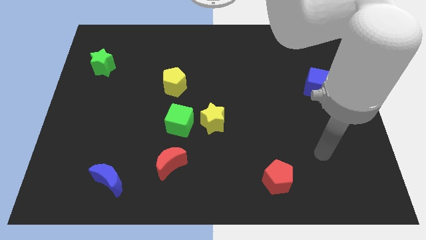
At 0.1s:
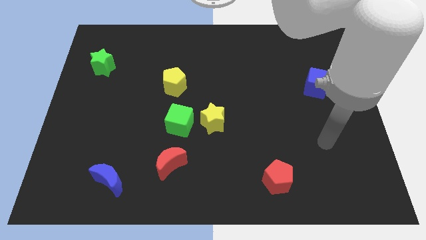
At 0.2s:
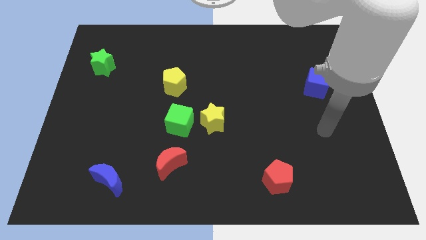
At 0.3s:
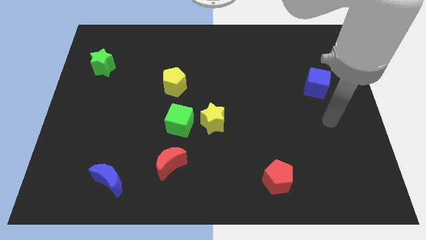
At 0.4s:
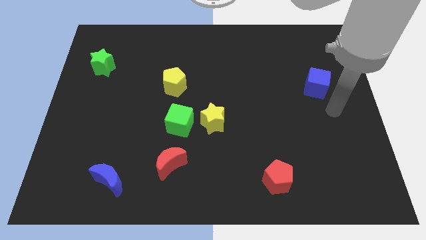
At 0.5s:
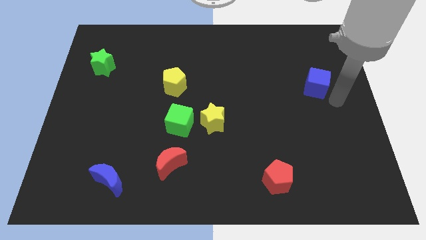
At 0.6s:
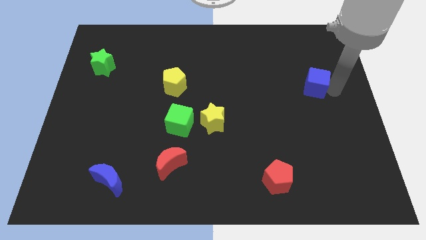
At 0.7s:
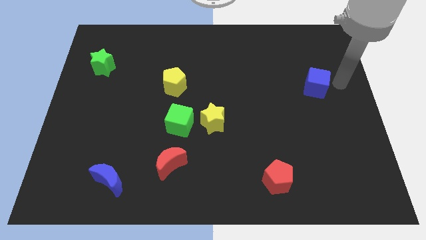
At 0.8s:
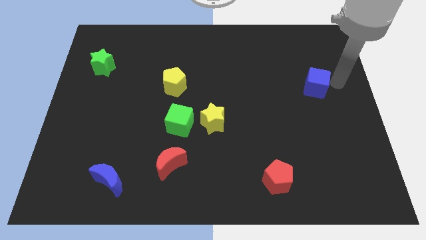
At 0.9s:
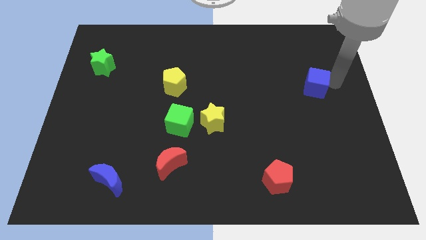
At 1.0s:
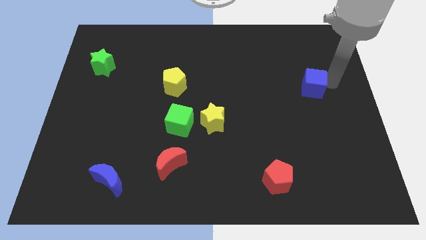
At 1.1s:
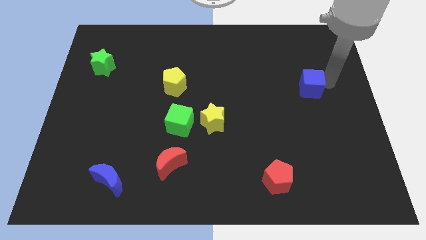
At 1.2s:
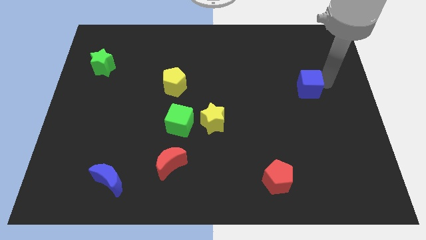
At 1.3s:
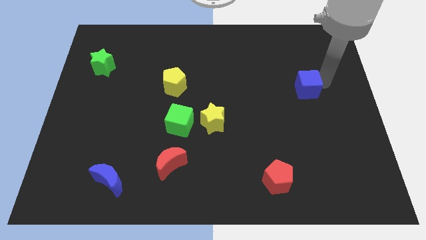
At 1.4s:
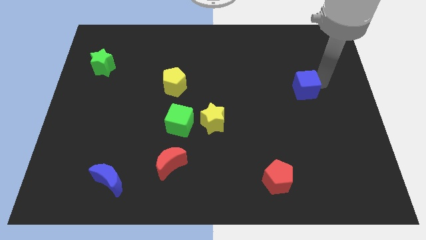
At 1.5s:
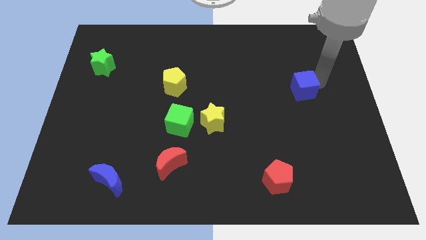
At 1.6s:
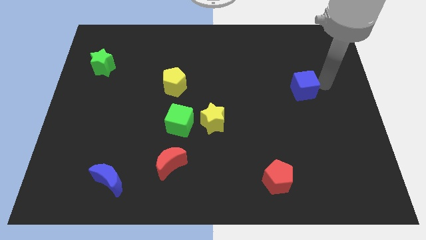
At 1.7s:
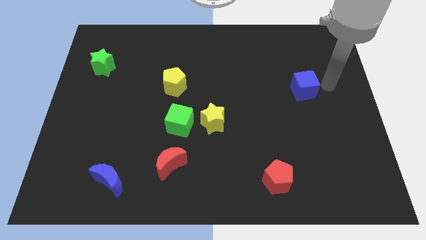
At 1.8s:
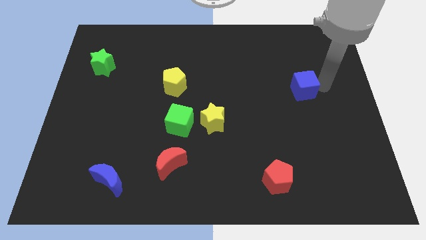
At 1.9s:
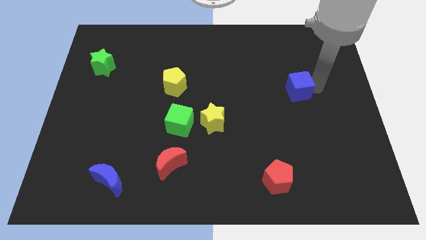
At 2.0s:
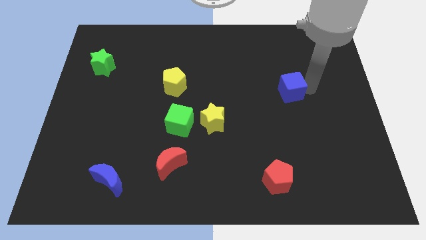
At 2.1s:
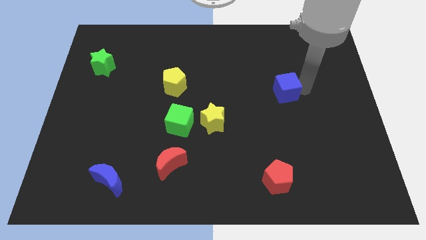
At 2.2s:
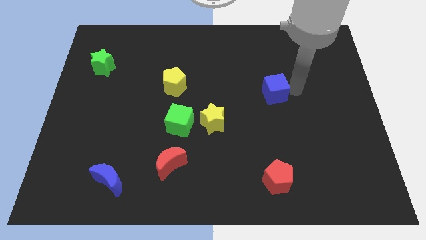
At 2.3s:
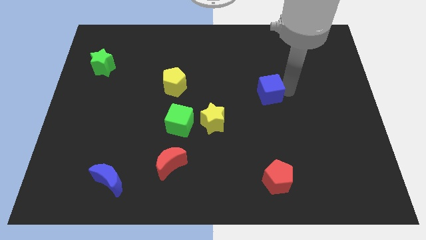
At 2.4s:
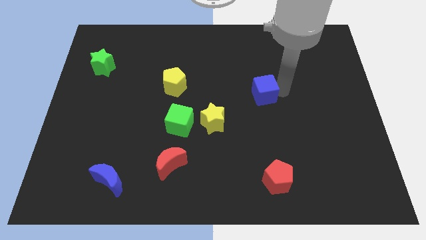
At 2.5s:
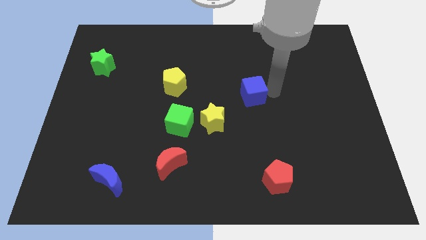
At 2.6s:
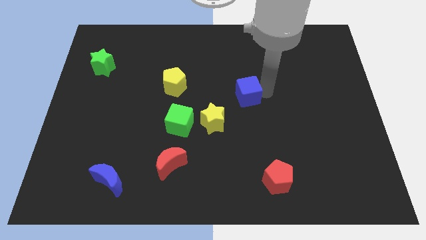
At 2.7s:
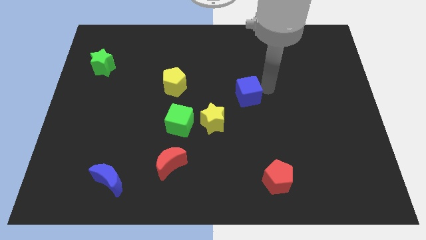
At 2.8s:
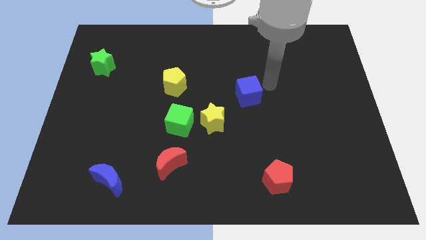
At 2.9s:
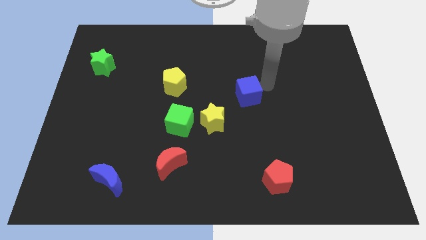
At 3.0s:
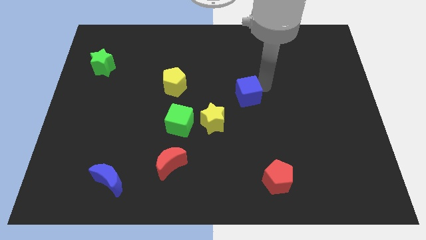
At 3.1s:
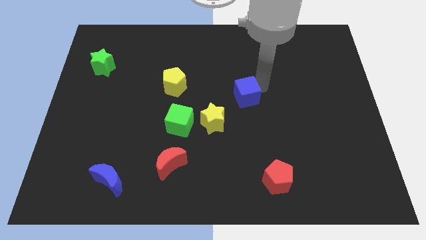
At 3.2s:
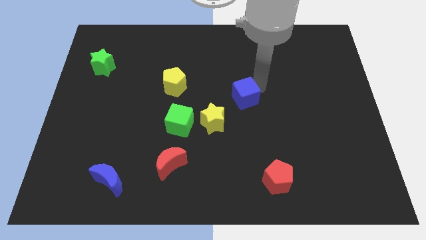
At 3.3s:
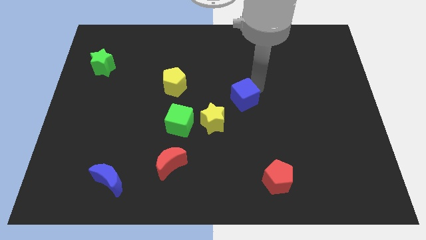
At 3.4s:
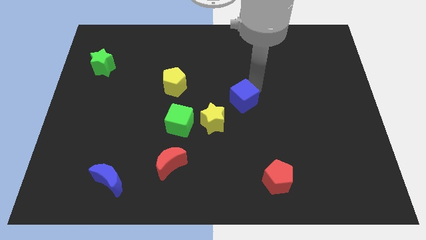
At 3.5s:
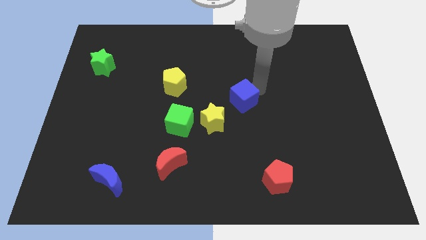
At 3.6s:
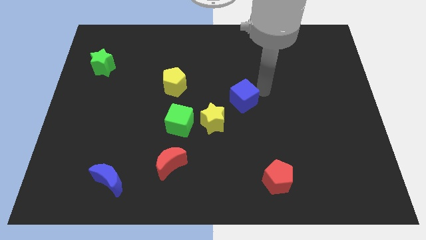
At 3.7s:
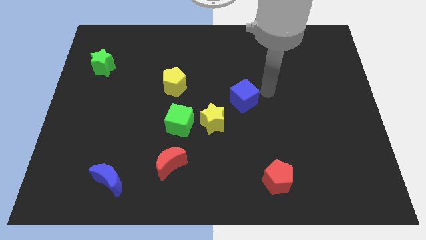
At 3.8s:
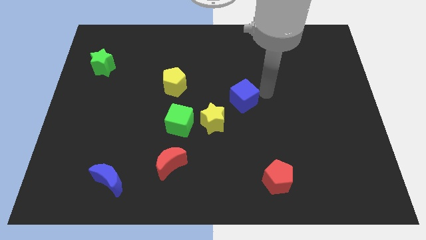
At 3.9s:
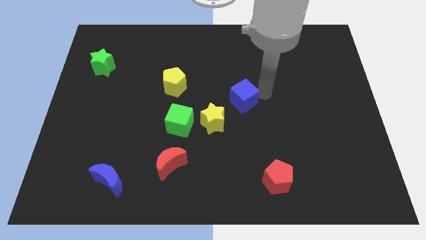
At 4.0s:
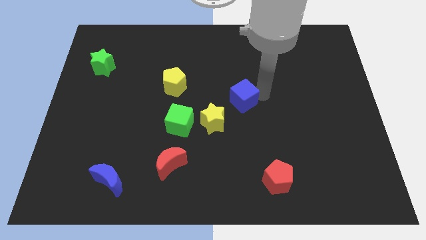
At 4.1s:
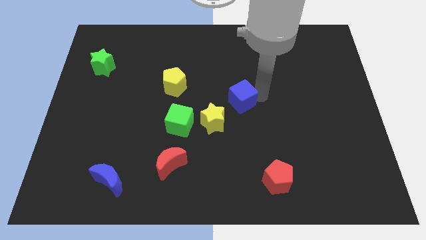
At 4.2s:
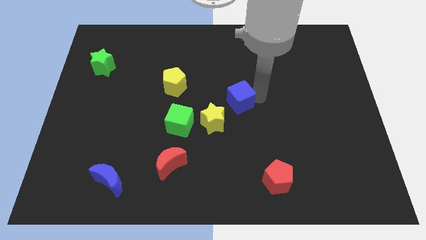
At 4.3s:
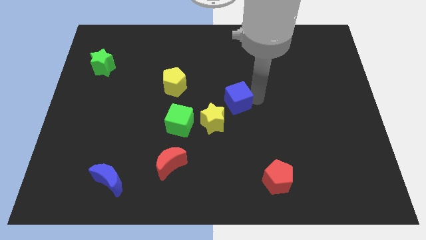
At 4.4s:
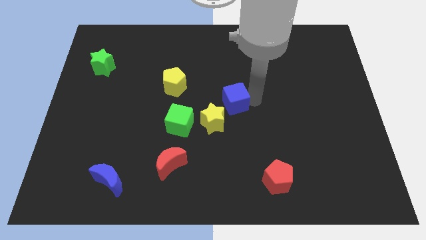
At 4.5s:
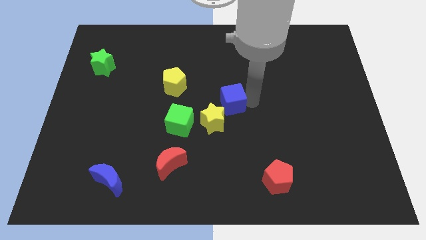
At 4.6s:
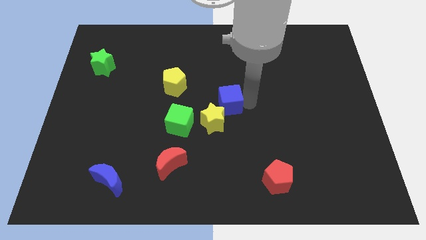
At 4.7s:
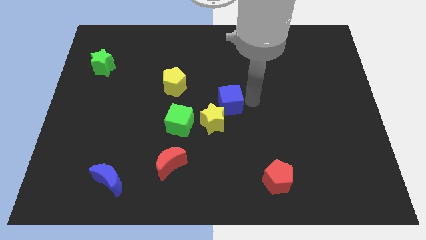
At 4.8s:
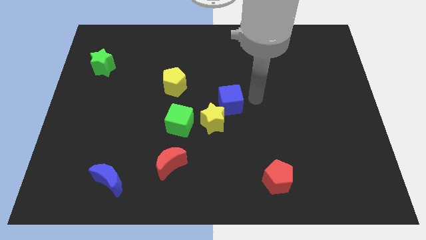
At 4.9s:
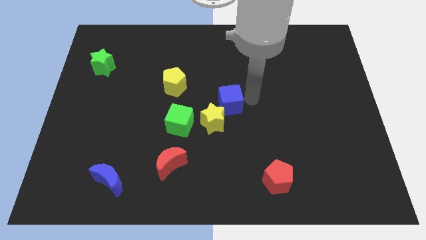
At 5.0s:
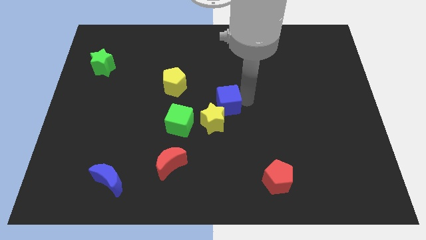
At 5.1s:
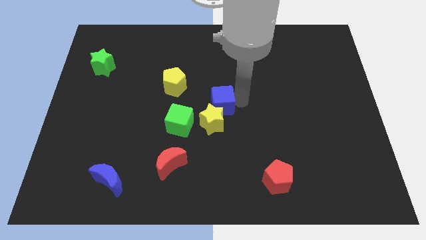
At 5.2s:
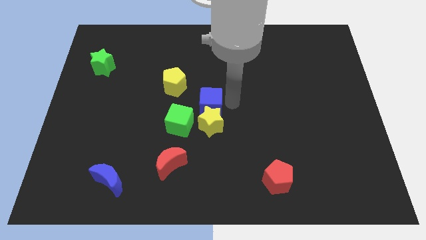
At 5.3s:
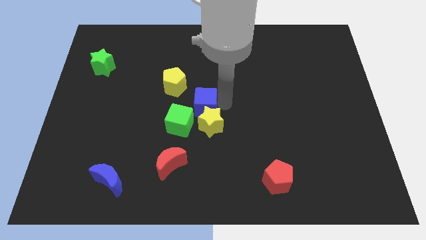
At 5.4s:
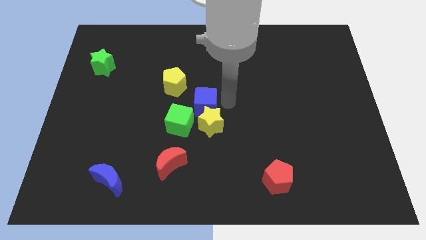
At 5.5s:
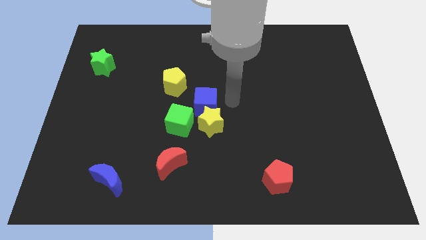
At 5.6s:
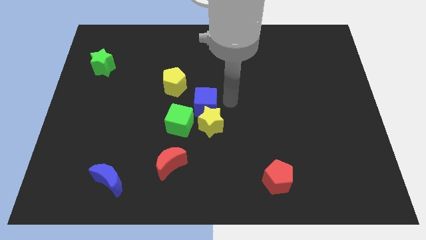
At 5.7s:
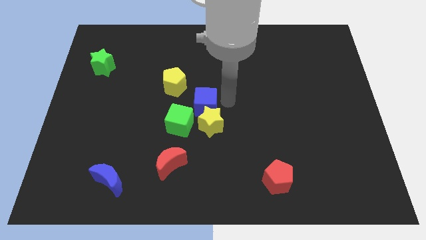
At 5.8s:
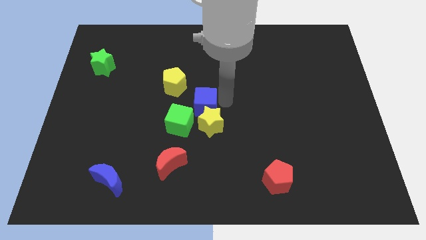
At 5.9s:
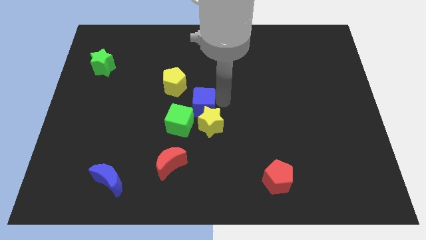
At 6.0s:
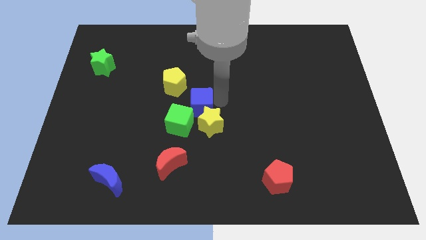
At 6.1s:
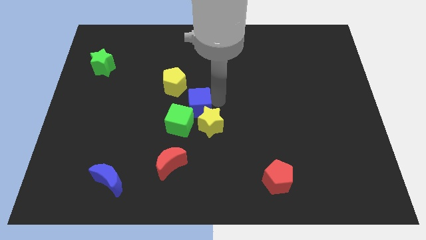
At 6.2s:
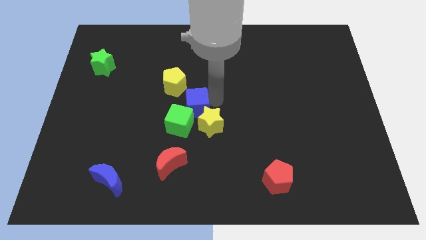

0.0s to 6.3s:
put the blue cube next to the green cube
